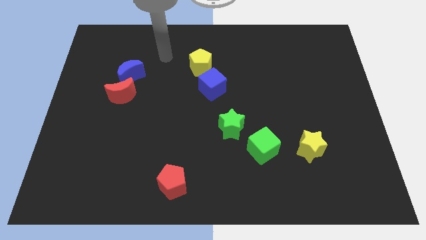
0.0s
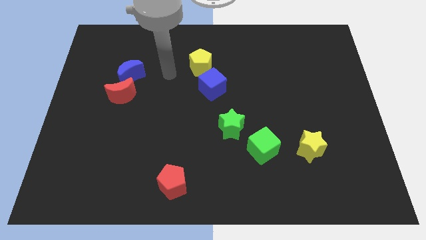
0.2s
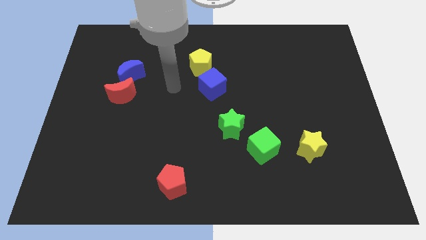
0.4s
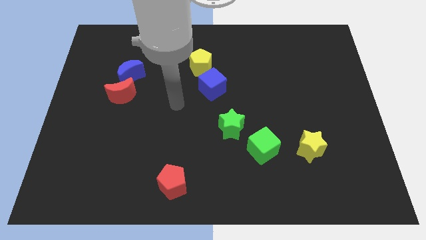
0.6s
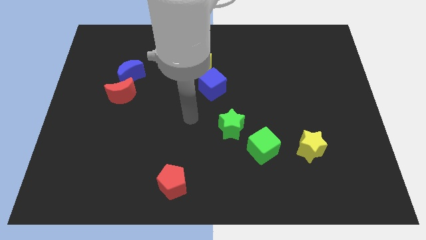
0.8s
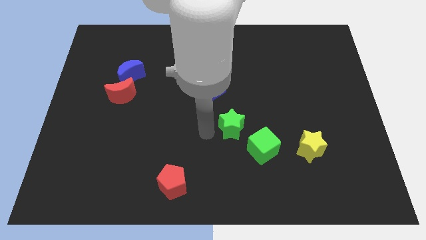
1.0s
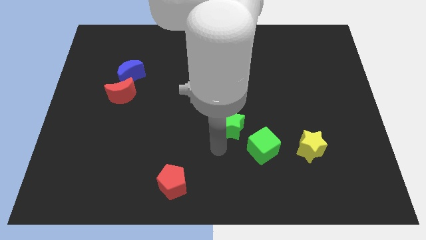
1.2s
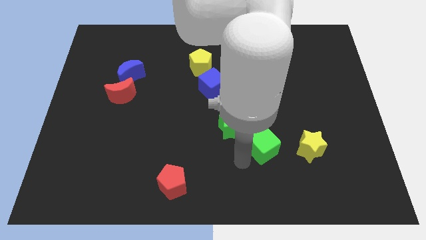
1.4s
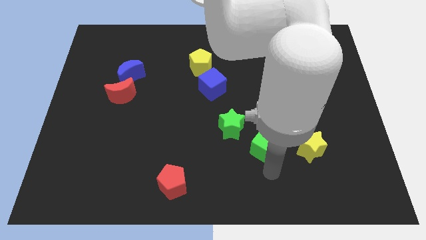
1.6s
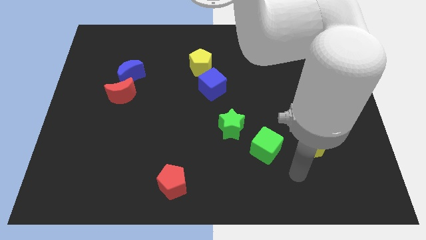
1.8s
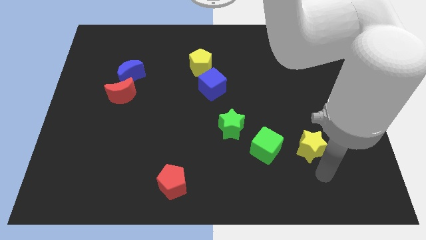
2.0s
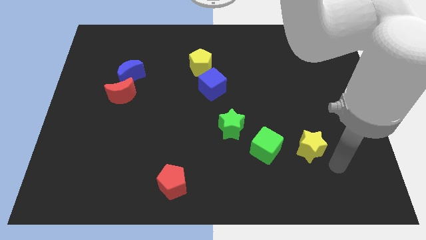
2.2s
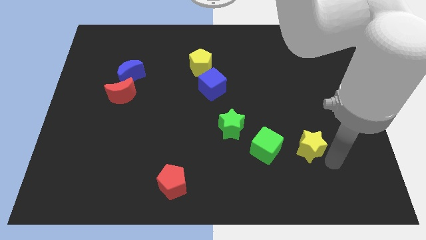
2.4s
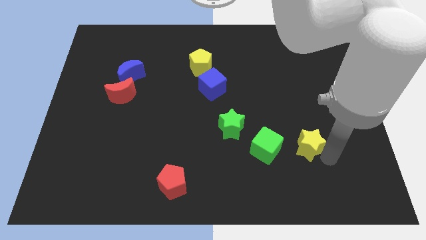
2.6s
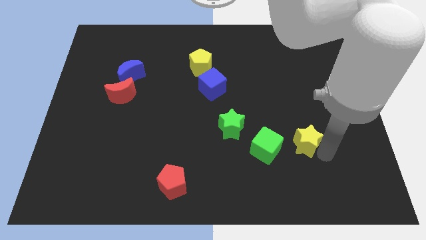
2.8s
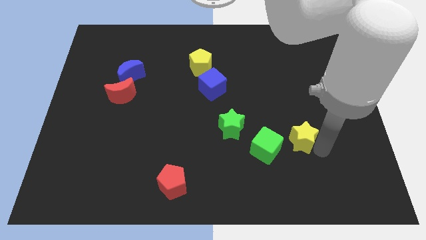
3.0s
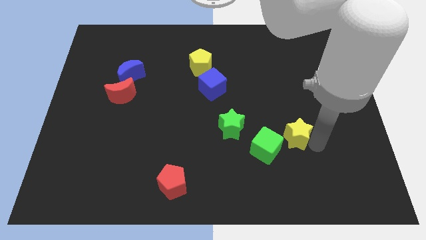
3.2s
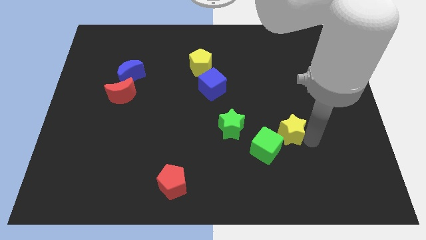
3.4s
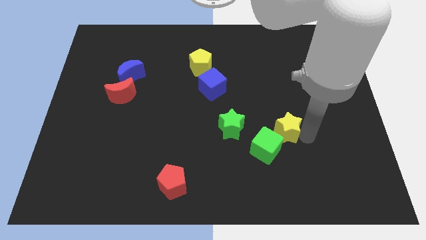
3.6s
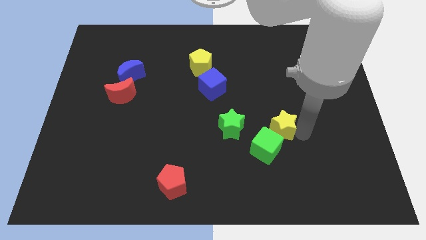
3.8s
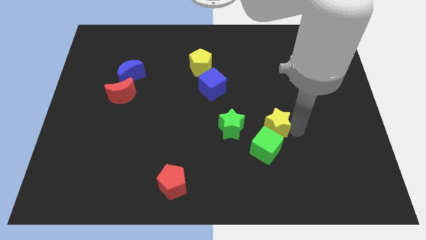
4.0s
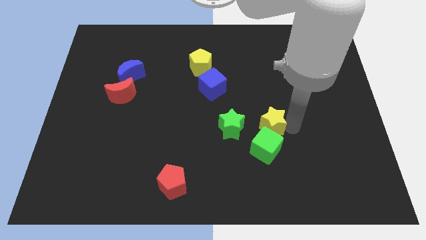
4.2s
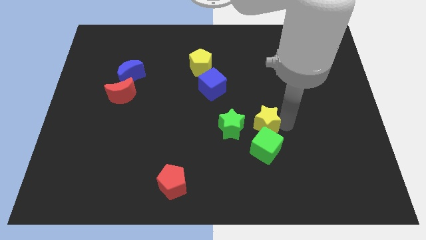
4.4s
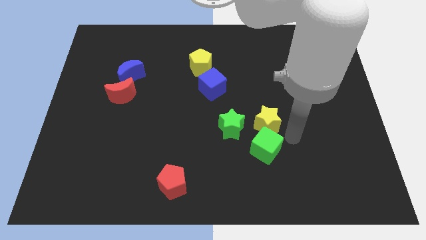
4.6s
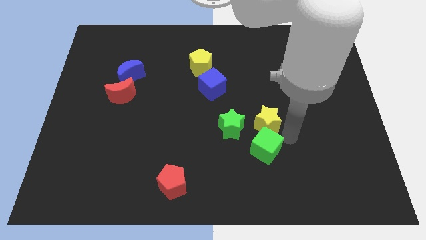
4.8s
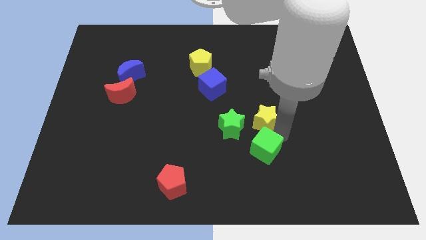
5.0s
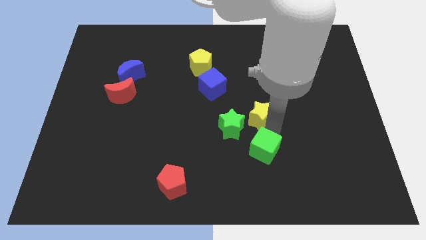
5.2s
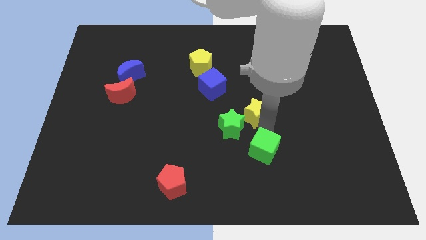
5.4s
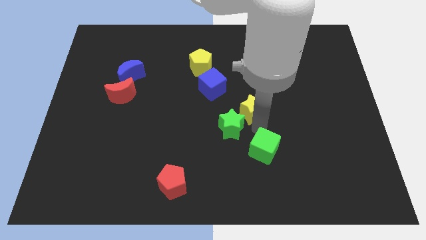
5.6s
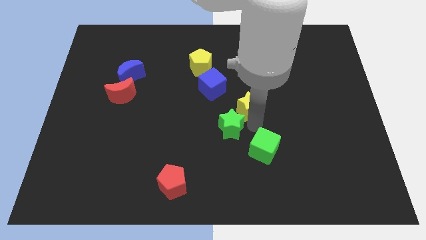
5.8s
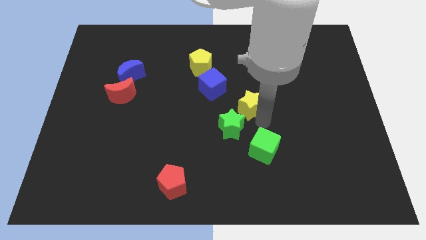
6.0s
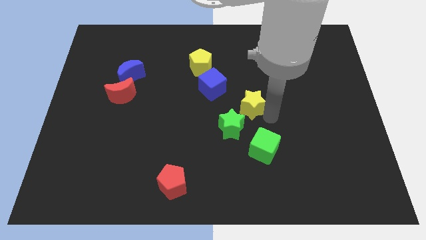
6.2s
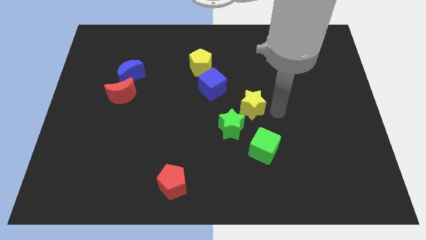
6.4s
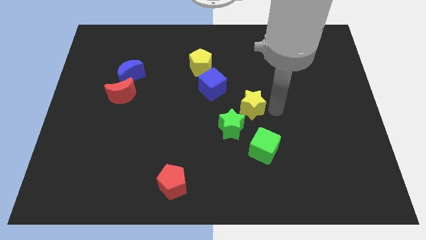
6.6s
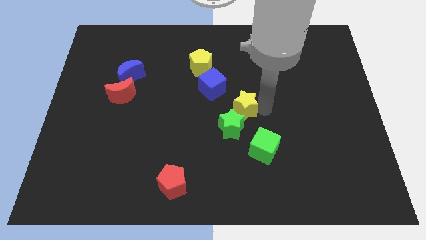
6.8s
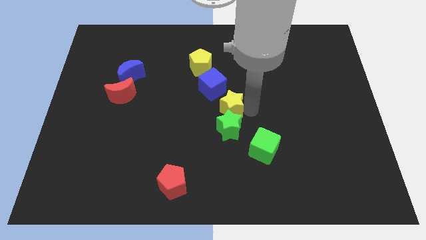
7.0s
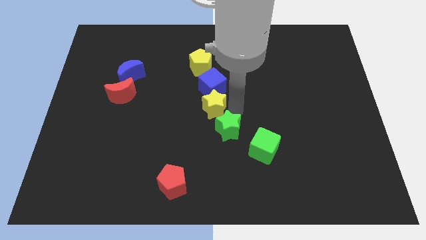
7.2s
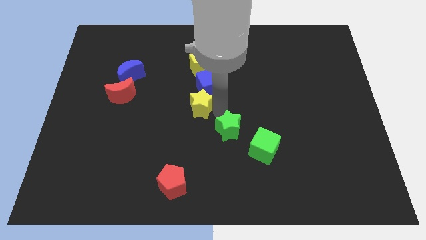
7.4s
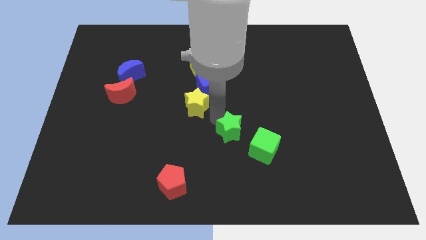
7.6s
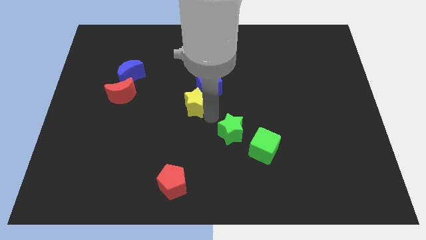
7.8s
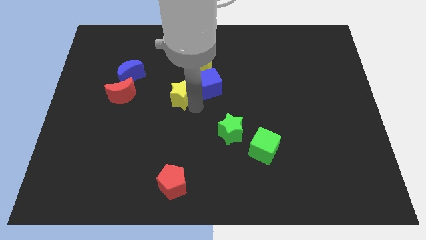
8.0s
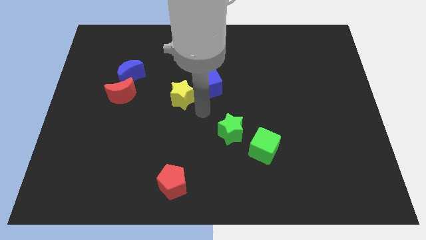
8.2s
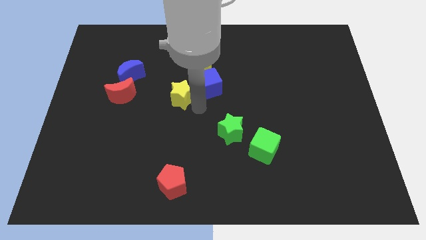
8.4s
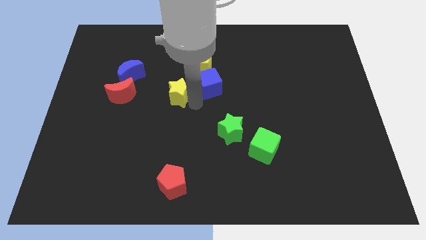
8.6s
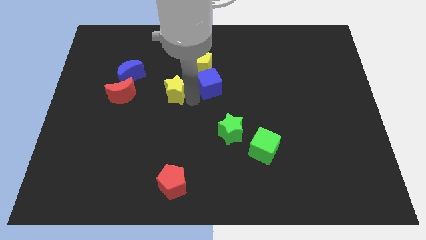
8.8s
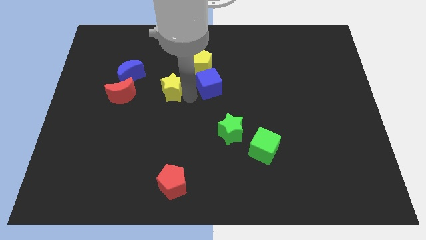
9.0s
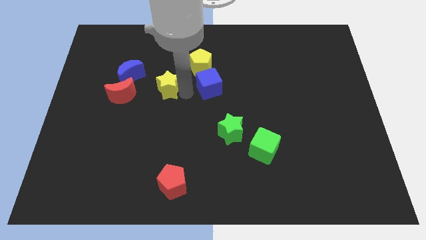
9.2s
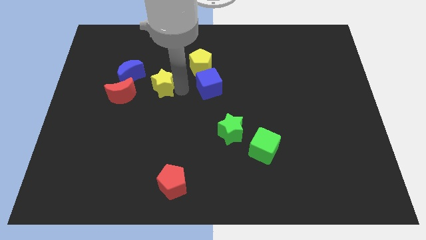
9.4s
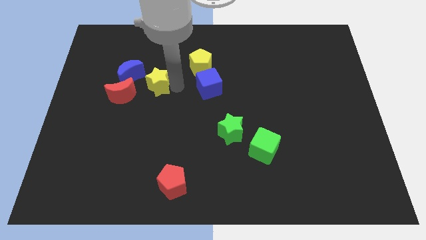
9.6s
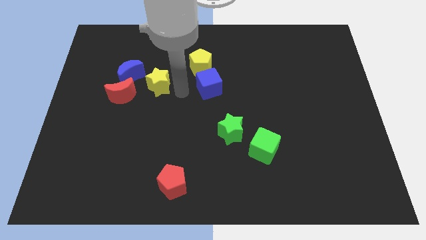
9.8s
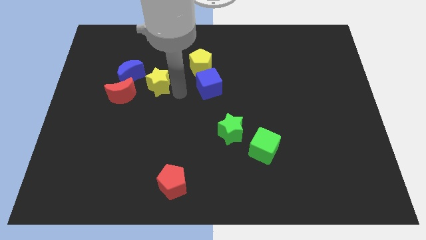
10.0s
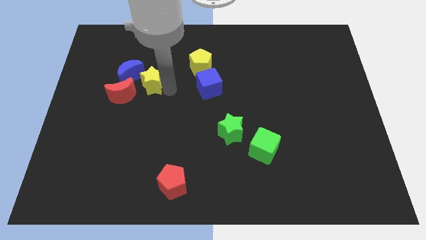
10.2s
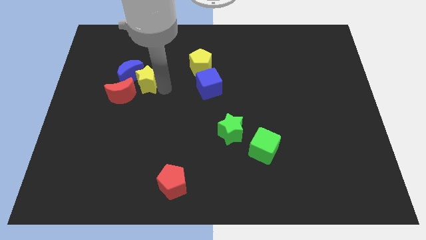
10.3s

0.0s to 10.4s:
push the yellow star towards the blue moon

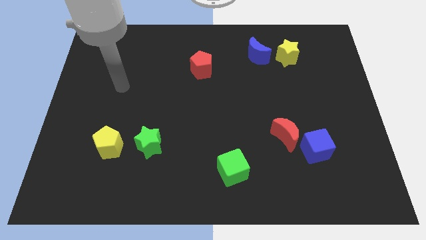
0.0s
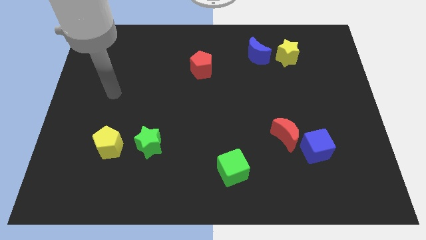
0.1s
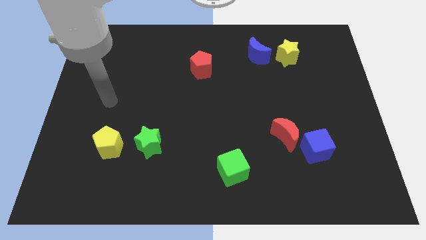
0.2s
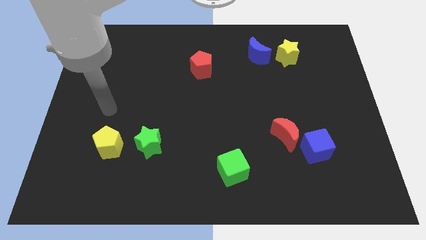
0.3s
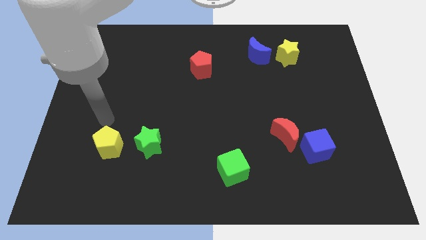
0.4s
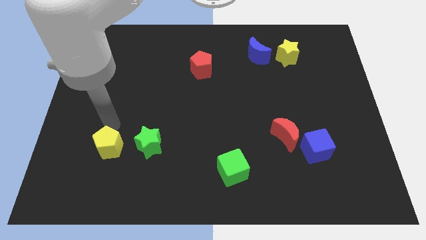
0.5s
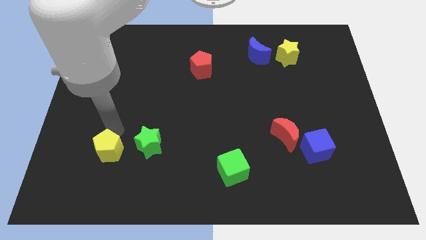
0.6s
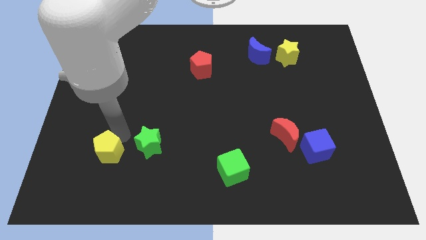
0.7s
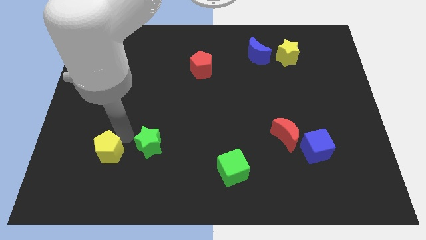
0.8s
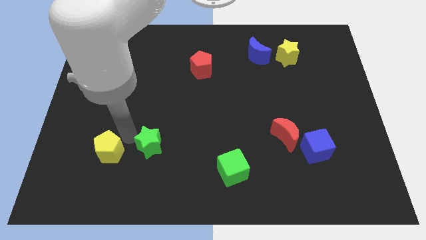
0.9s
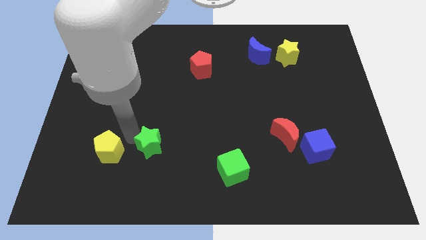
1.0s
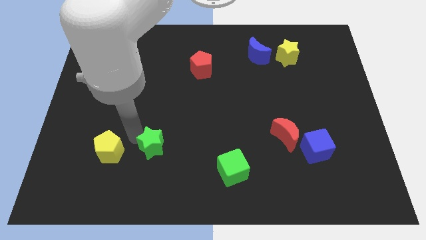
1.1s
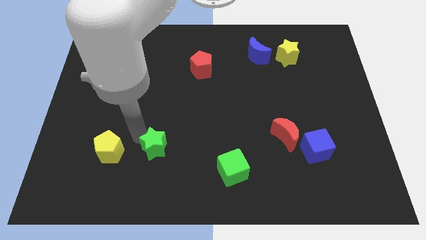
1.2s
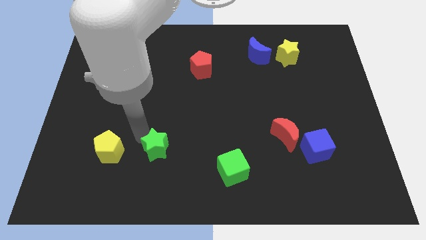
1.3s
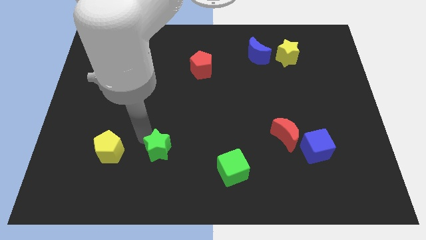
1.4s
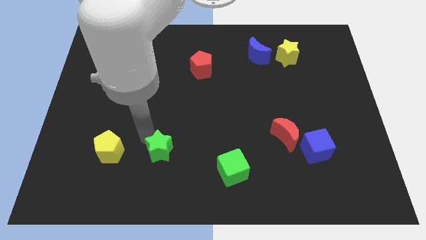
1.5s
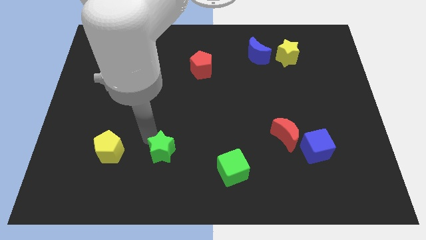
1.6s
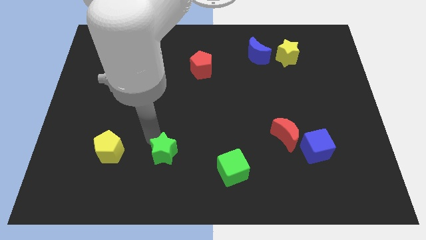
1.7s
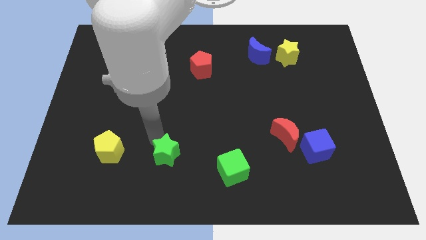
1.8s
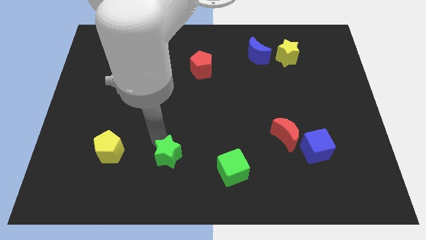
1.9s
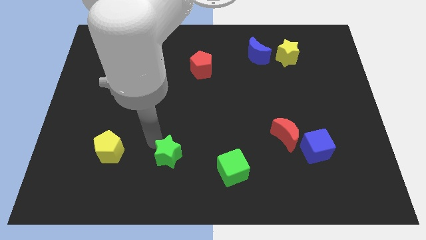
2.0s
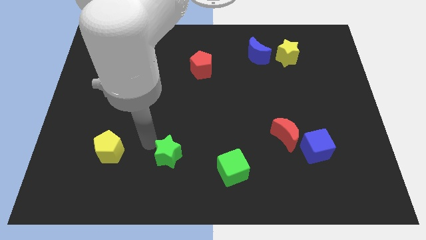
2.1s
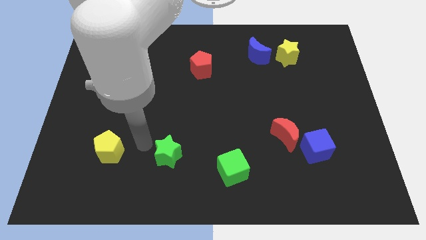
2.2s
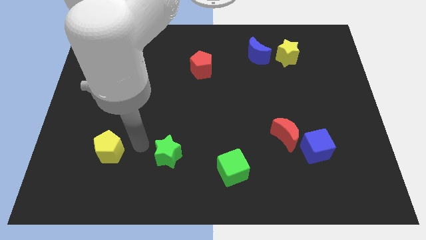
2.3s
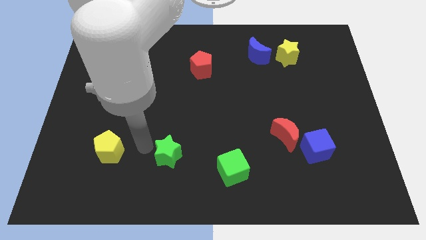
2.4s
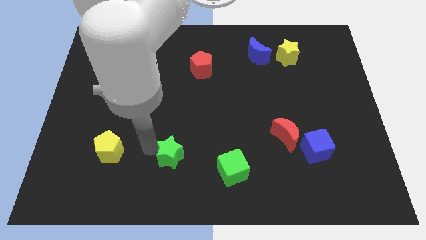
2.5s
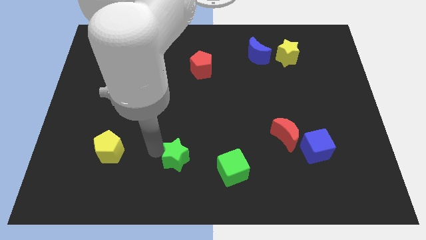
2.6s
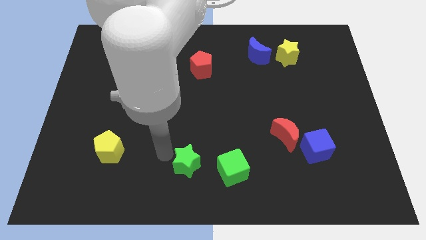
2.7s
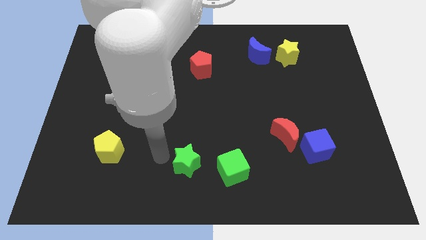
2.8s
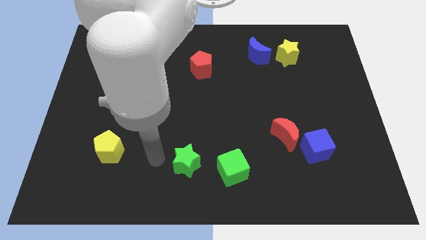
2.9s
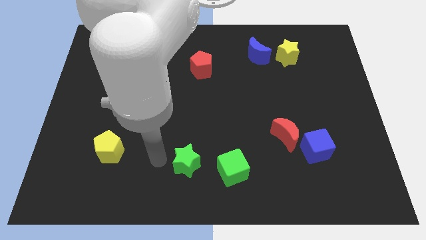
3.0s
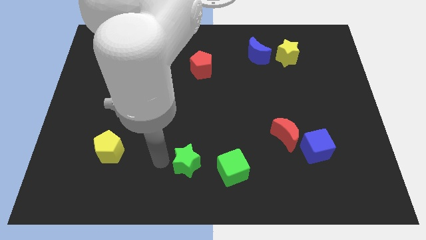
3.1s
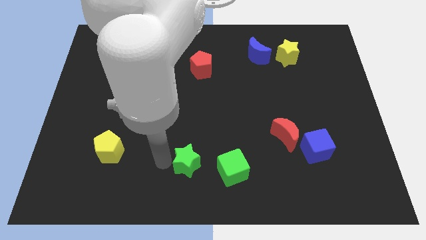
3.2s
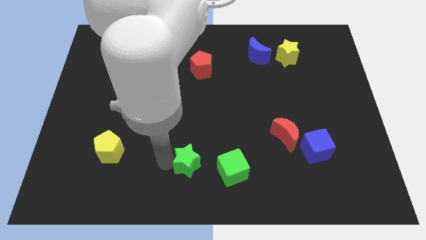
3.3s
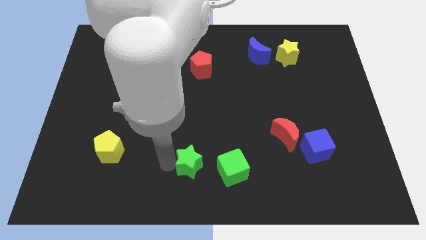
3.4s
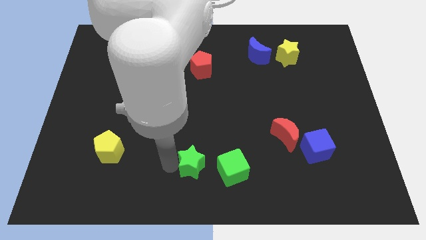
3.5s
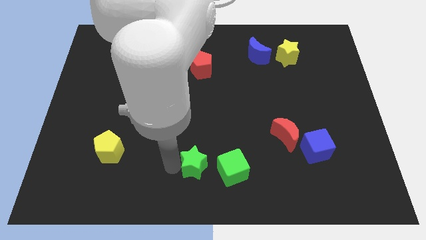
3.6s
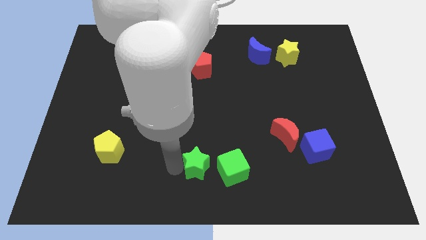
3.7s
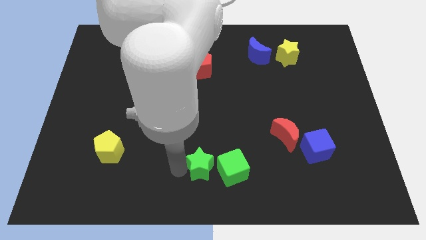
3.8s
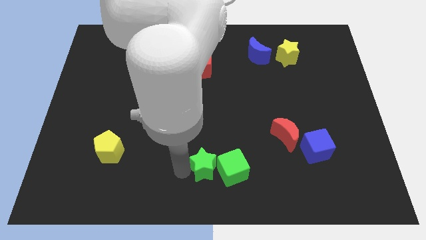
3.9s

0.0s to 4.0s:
push the green star close to the green cube
